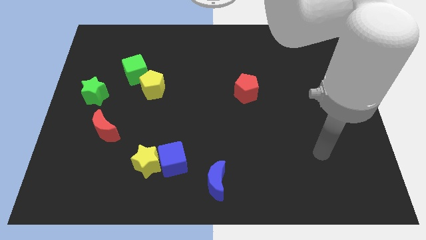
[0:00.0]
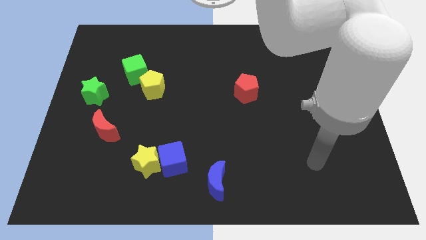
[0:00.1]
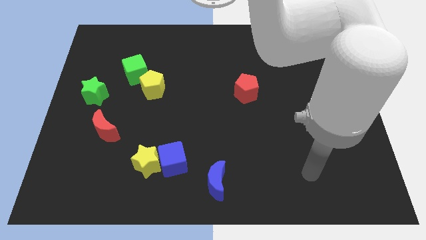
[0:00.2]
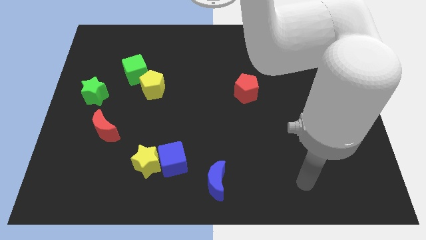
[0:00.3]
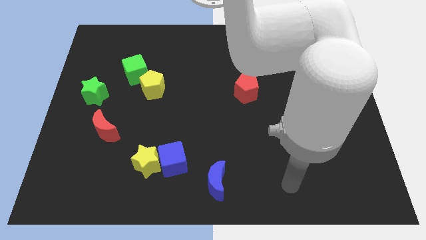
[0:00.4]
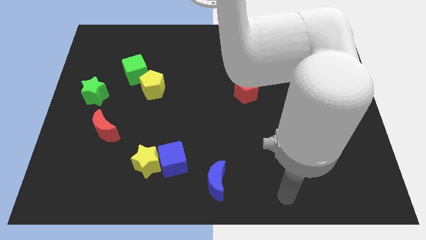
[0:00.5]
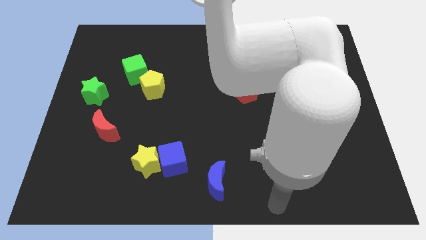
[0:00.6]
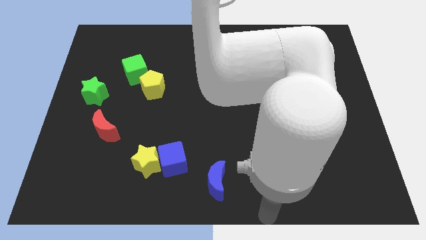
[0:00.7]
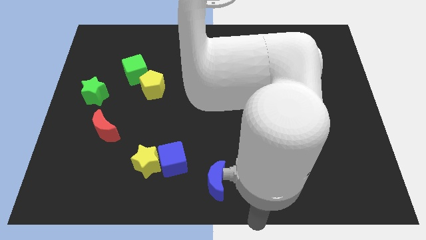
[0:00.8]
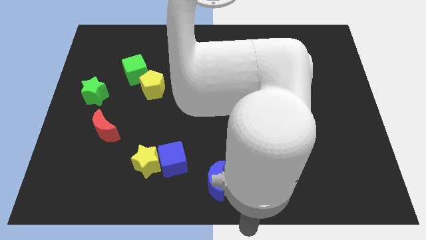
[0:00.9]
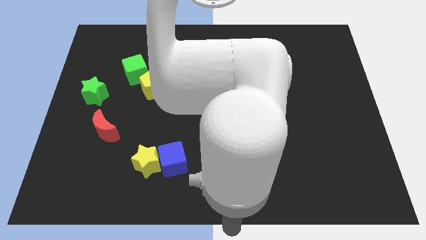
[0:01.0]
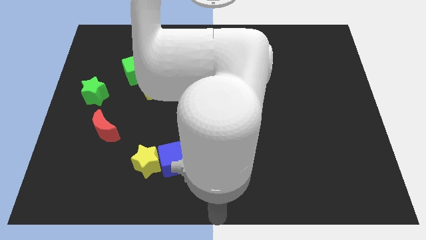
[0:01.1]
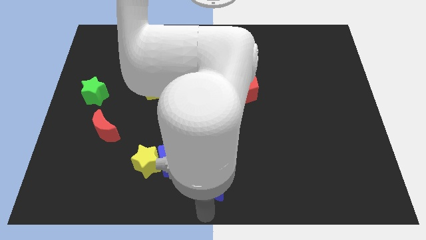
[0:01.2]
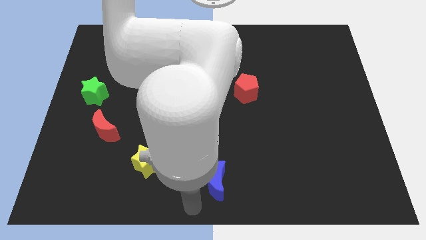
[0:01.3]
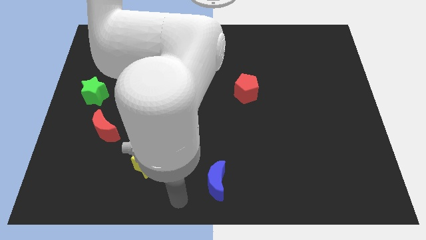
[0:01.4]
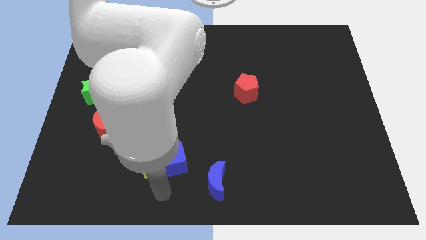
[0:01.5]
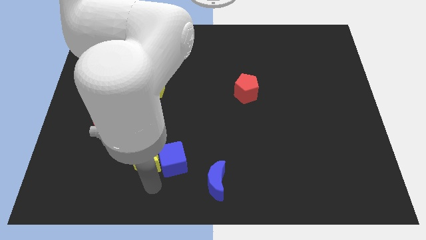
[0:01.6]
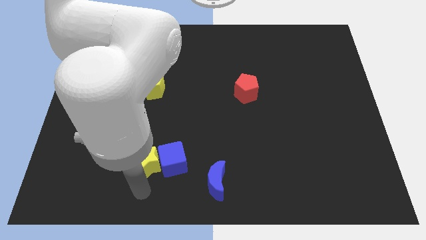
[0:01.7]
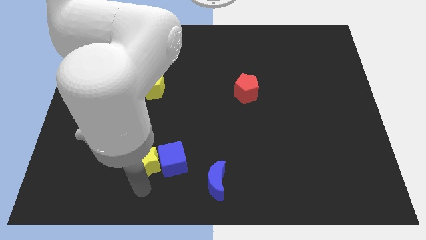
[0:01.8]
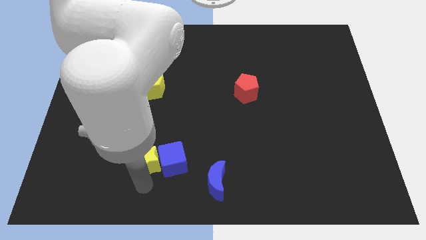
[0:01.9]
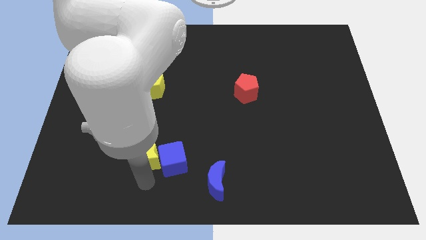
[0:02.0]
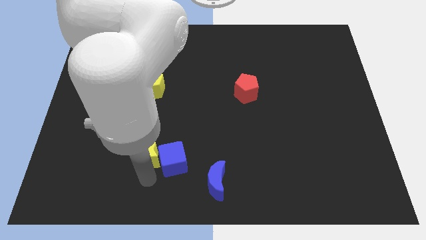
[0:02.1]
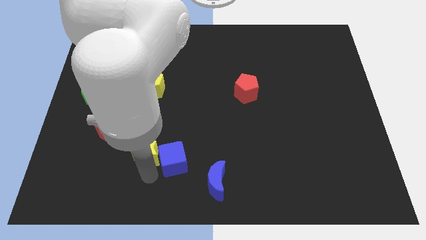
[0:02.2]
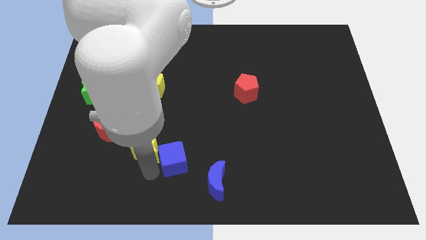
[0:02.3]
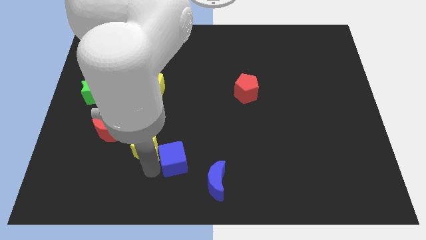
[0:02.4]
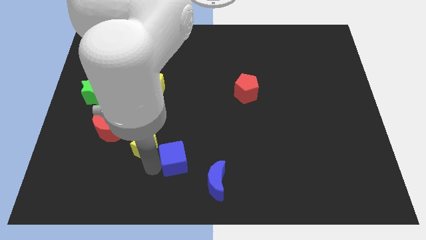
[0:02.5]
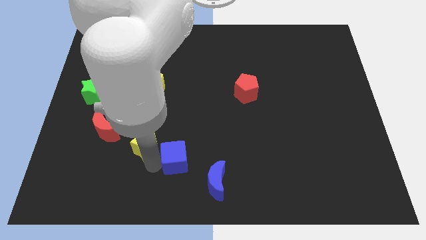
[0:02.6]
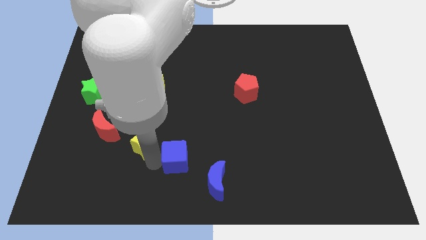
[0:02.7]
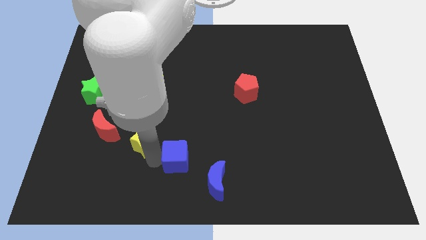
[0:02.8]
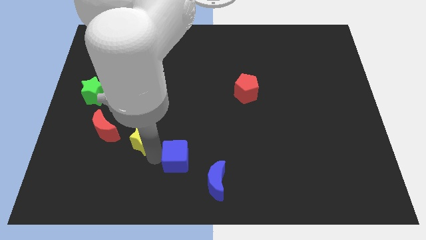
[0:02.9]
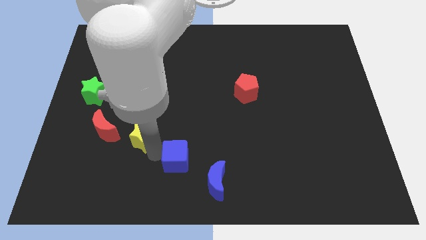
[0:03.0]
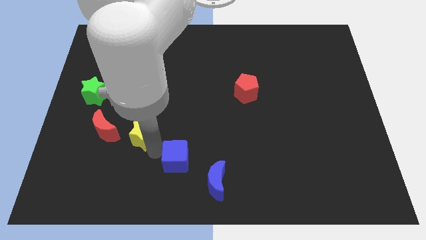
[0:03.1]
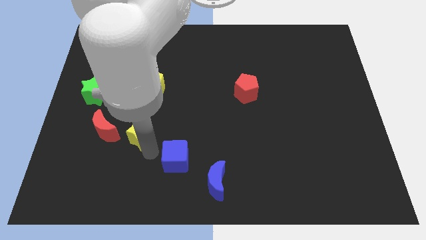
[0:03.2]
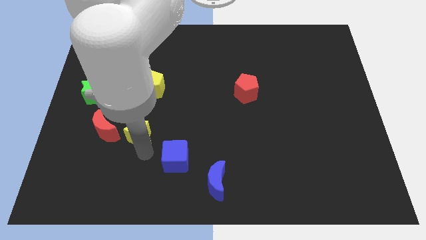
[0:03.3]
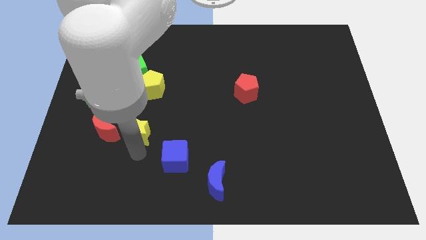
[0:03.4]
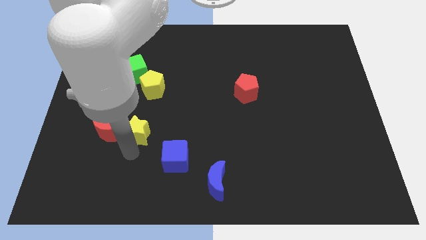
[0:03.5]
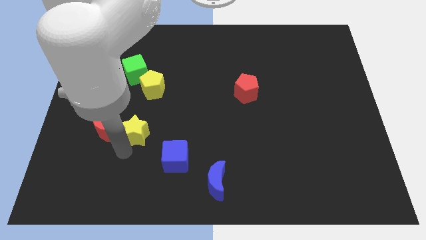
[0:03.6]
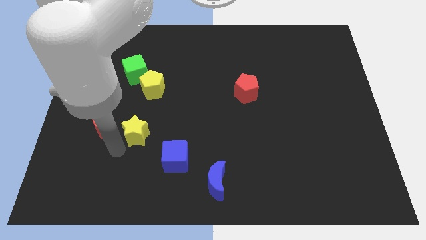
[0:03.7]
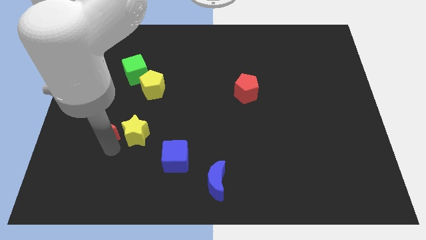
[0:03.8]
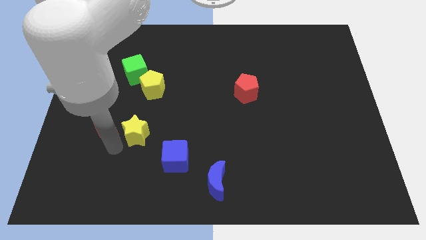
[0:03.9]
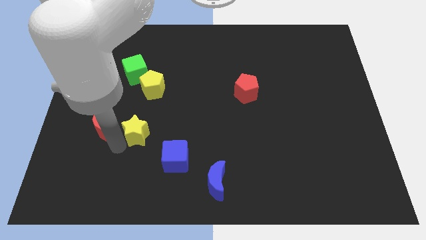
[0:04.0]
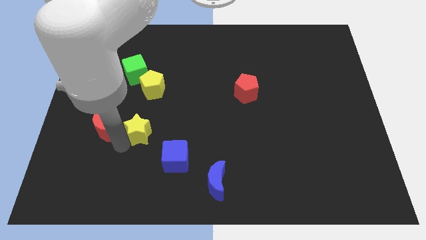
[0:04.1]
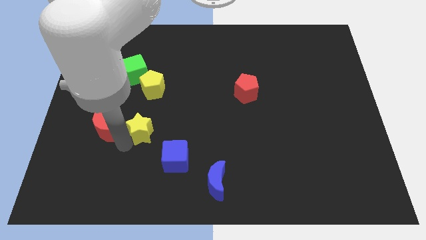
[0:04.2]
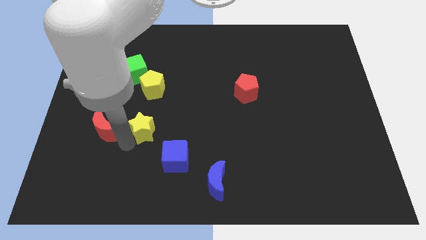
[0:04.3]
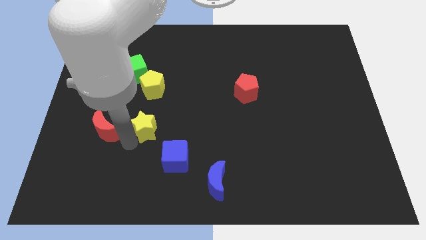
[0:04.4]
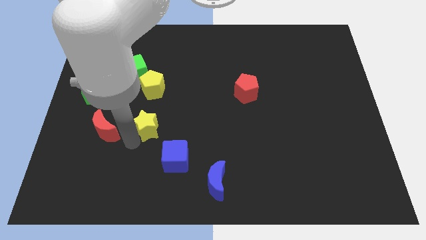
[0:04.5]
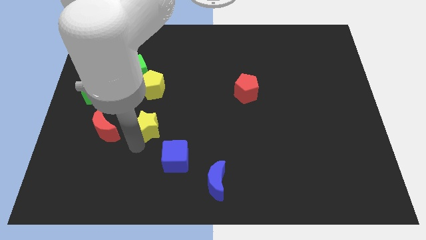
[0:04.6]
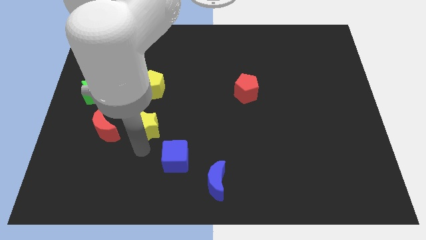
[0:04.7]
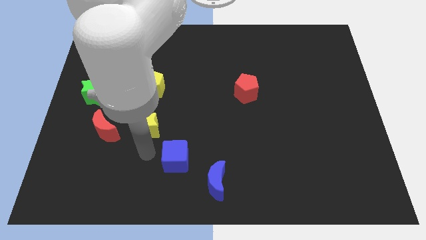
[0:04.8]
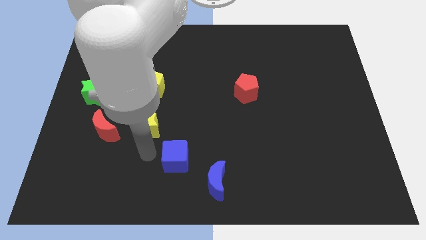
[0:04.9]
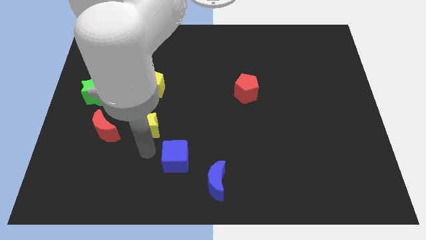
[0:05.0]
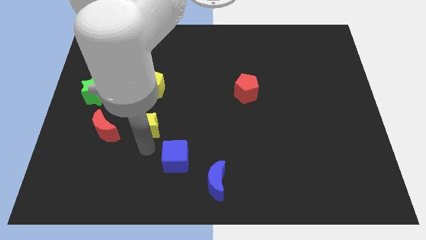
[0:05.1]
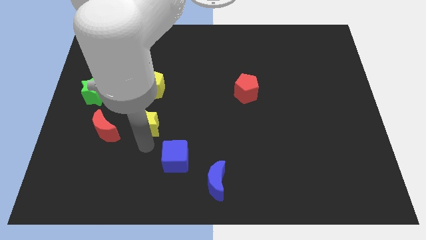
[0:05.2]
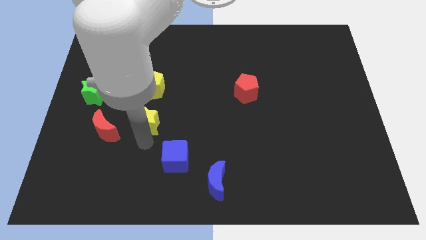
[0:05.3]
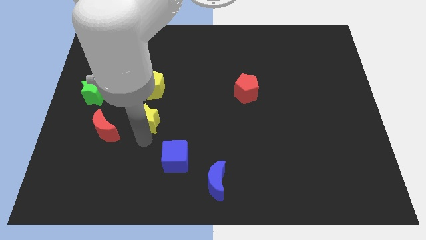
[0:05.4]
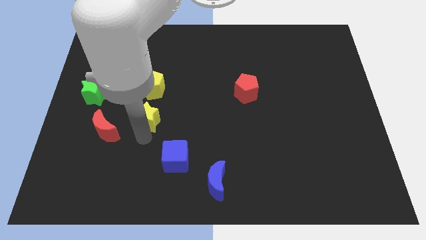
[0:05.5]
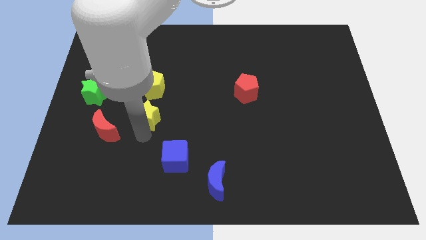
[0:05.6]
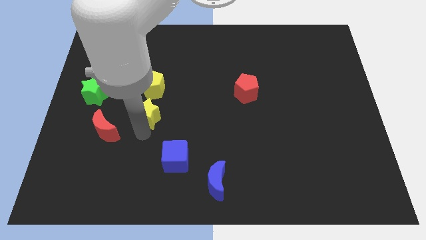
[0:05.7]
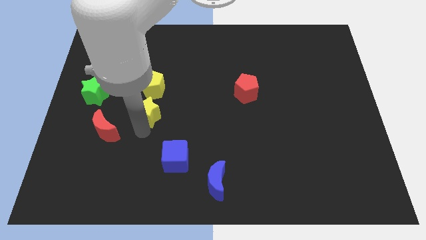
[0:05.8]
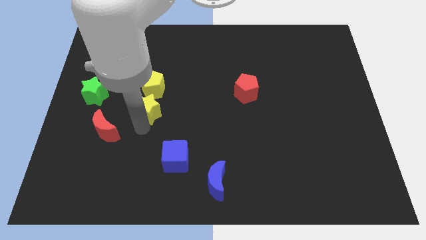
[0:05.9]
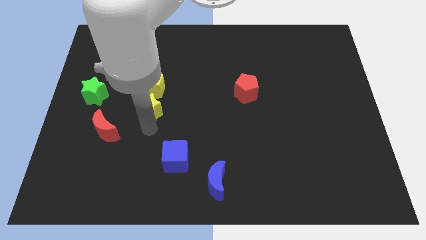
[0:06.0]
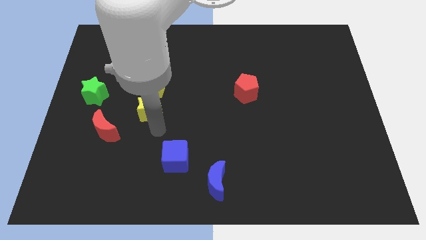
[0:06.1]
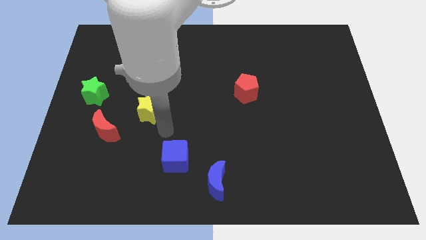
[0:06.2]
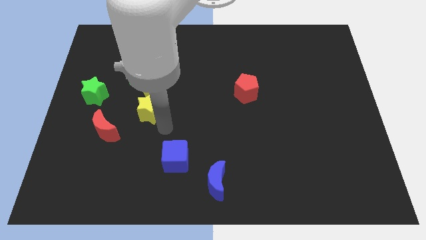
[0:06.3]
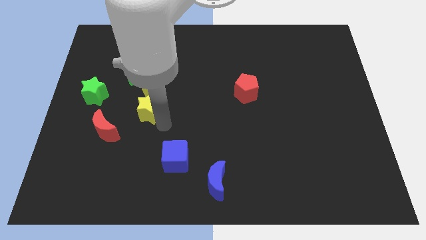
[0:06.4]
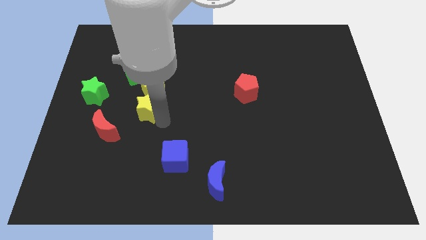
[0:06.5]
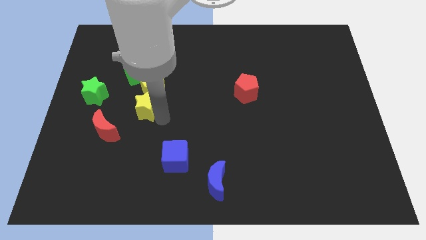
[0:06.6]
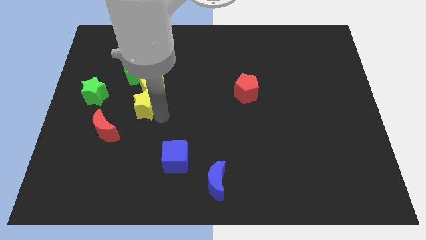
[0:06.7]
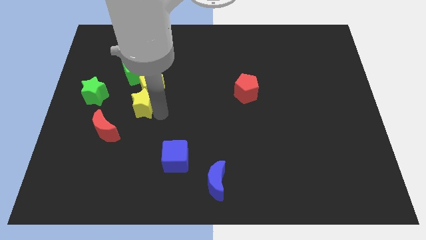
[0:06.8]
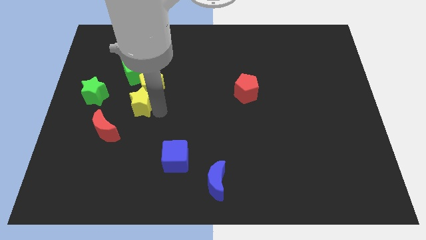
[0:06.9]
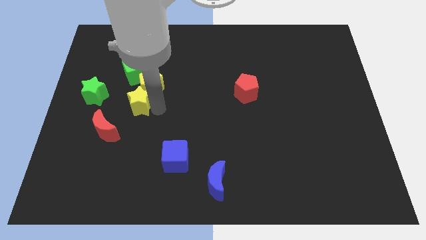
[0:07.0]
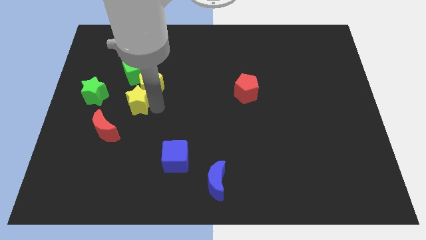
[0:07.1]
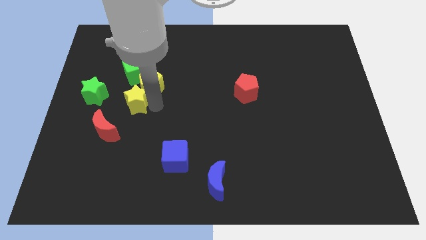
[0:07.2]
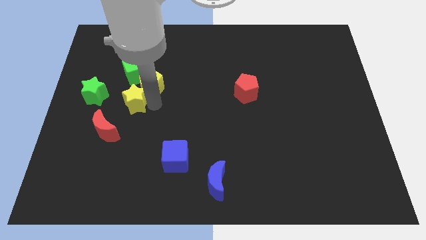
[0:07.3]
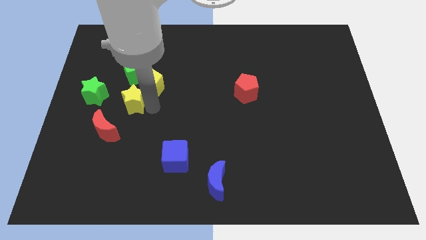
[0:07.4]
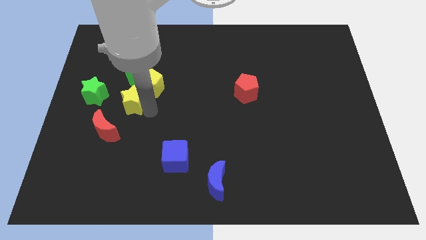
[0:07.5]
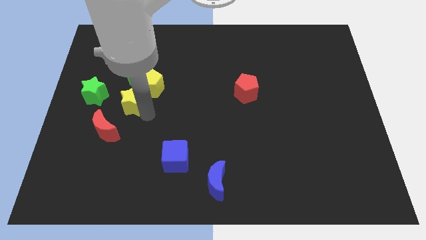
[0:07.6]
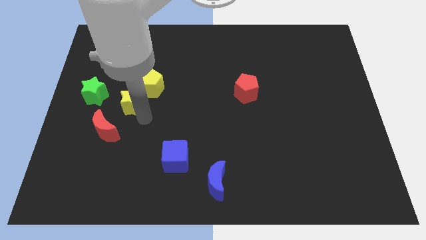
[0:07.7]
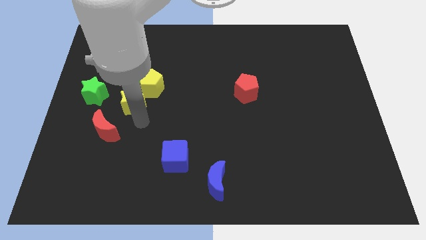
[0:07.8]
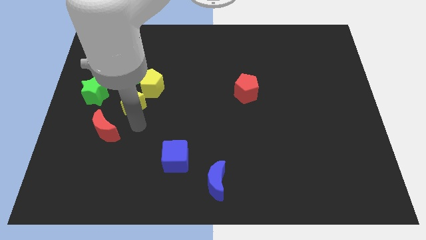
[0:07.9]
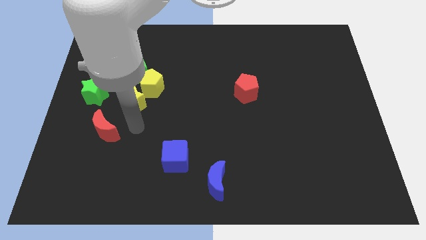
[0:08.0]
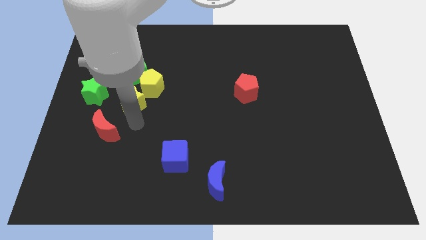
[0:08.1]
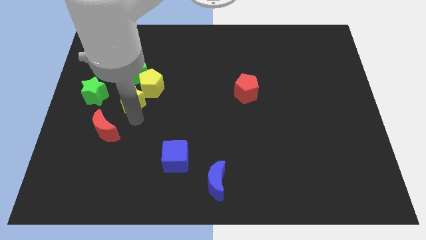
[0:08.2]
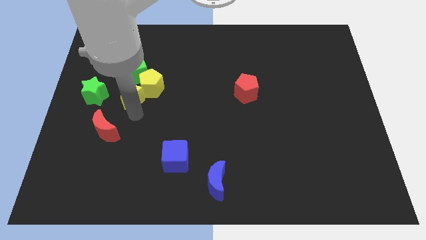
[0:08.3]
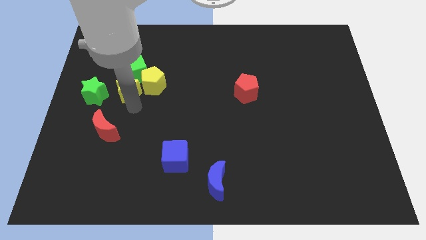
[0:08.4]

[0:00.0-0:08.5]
put the yellow star to the green cube
